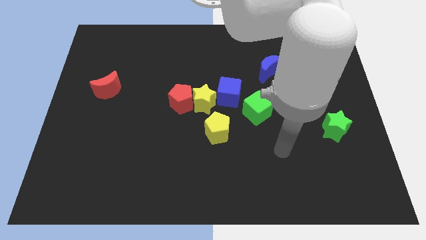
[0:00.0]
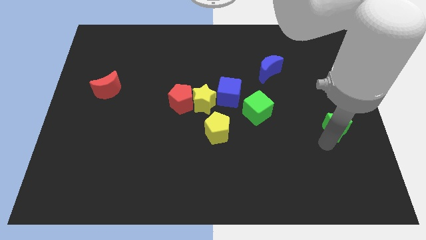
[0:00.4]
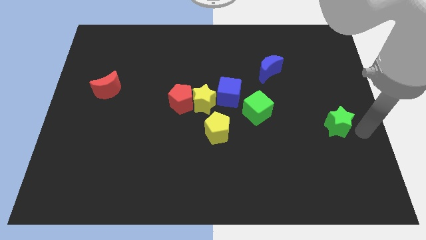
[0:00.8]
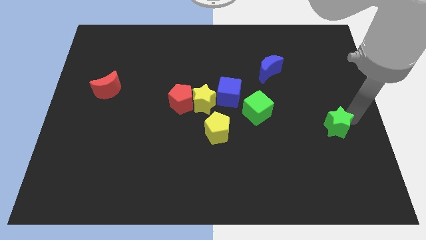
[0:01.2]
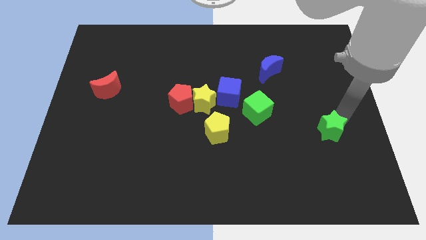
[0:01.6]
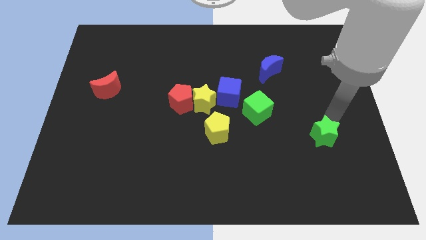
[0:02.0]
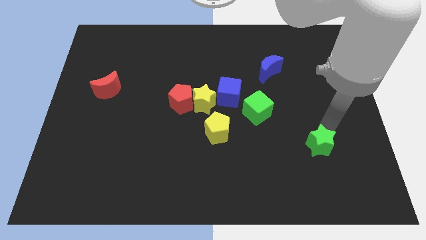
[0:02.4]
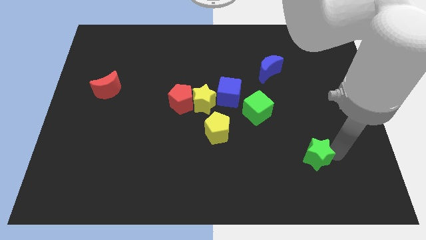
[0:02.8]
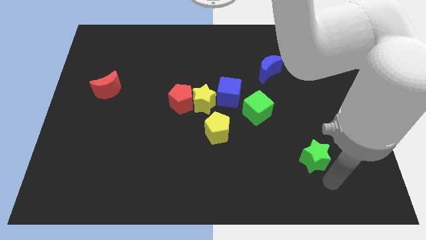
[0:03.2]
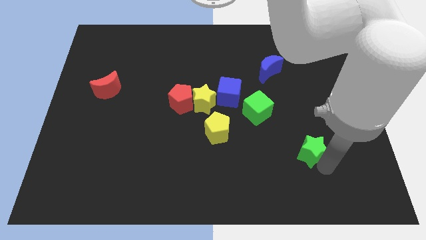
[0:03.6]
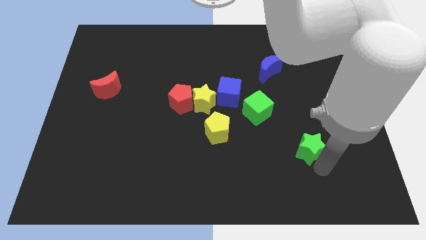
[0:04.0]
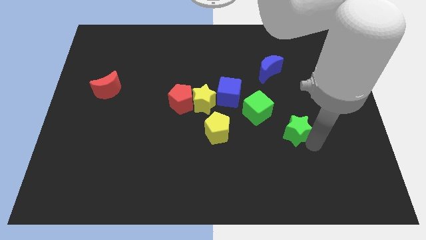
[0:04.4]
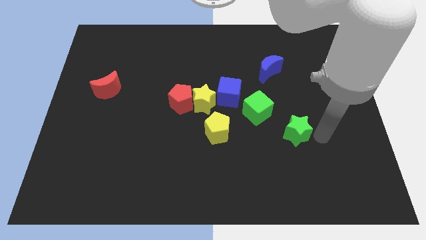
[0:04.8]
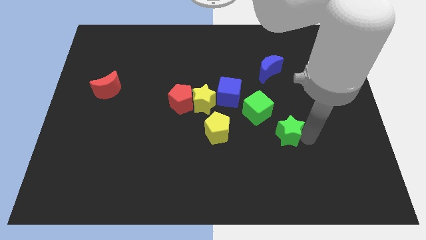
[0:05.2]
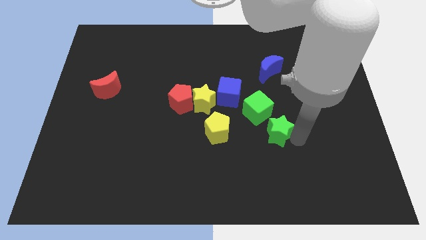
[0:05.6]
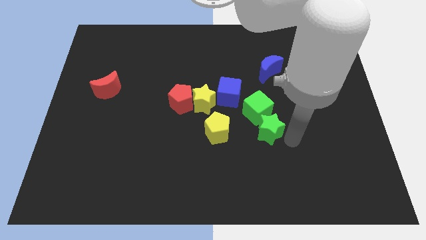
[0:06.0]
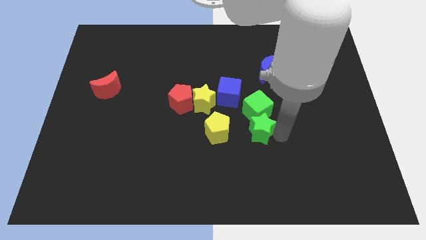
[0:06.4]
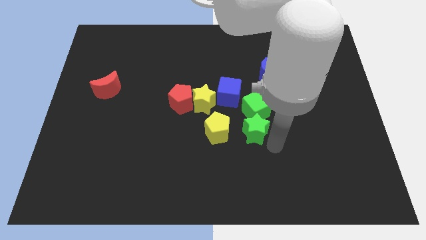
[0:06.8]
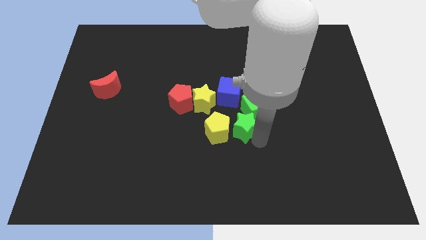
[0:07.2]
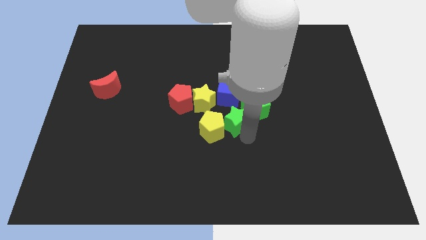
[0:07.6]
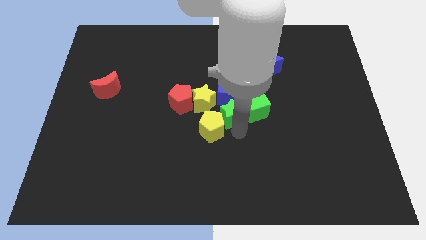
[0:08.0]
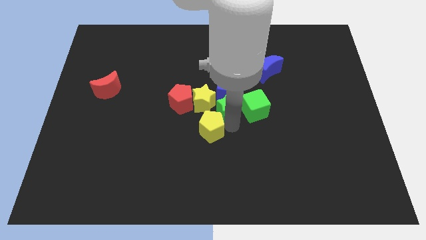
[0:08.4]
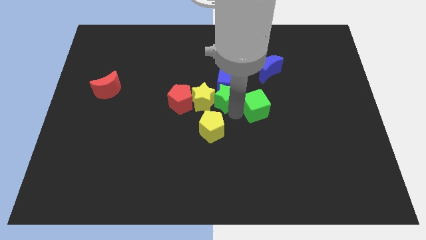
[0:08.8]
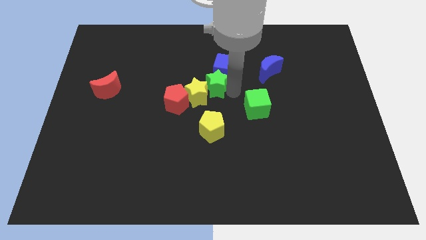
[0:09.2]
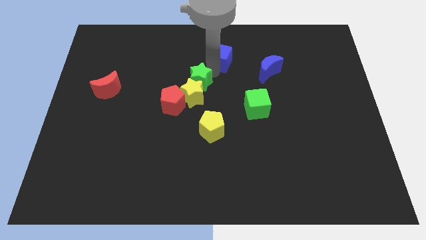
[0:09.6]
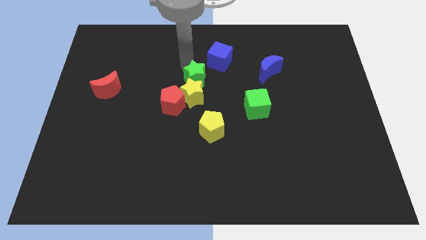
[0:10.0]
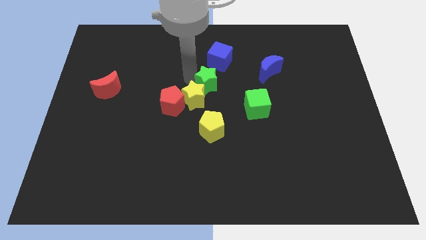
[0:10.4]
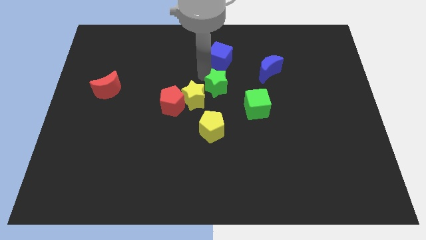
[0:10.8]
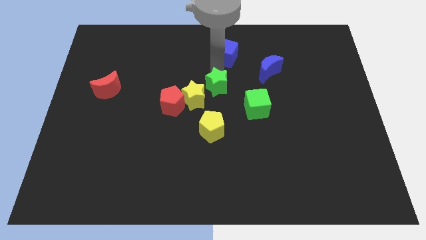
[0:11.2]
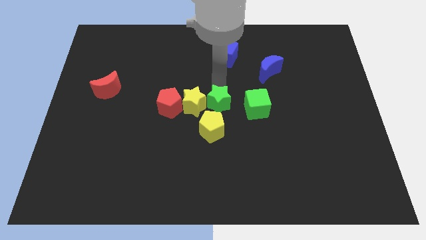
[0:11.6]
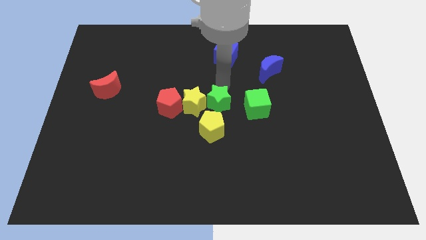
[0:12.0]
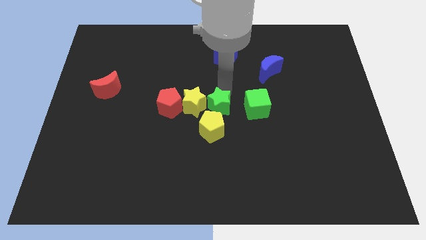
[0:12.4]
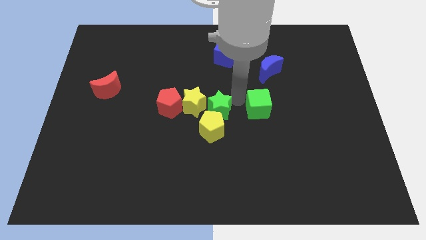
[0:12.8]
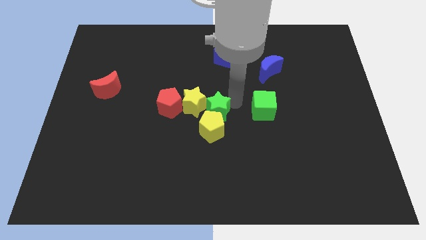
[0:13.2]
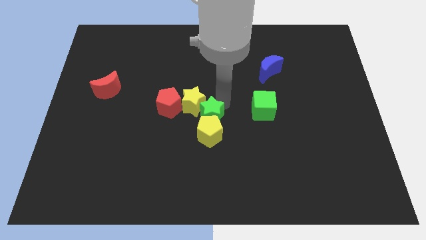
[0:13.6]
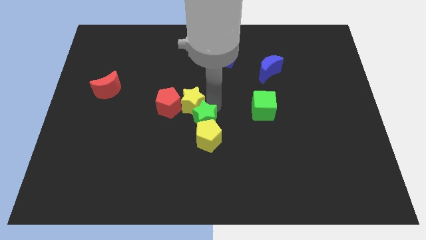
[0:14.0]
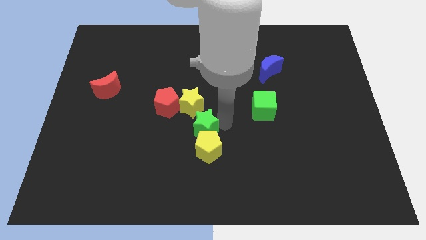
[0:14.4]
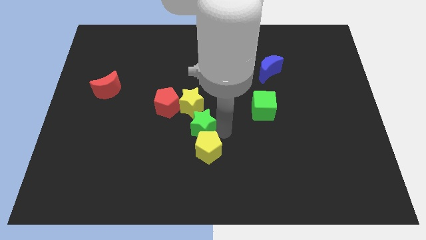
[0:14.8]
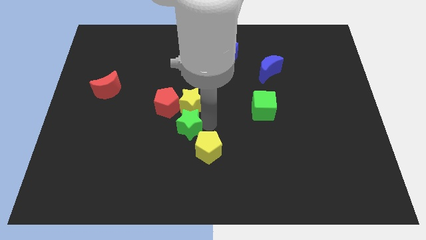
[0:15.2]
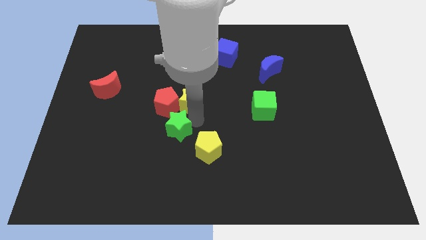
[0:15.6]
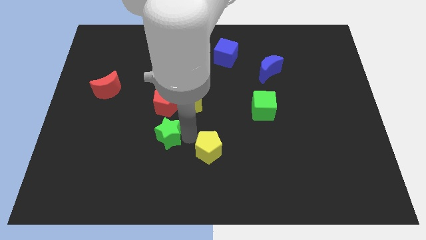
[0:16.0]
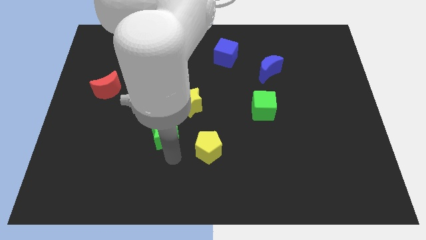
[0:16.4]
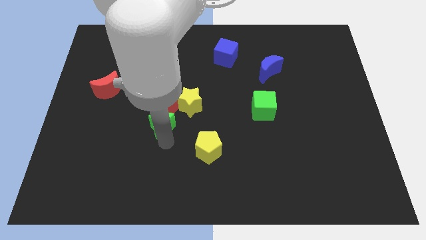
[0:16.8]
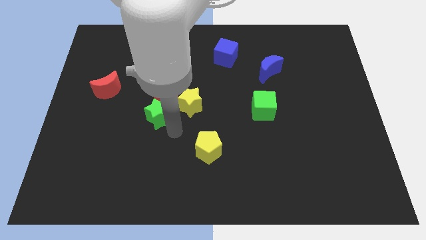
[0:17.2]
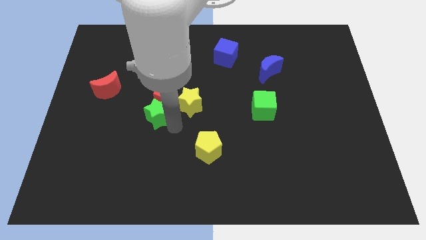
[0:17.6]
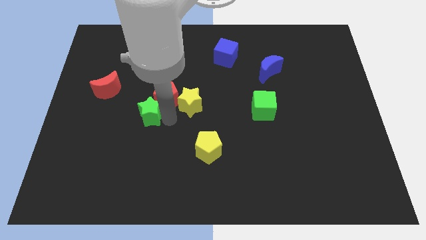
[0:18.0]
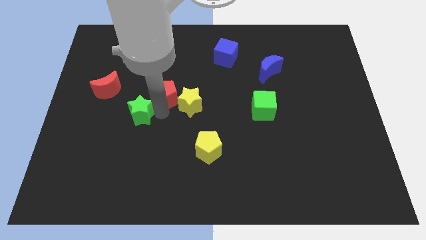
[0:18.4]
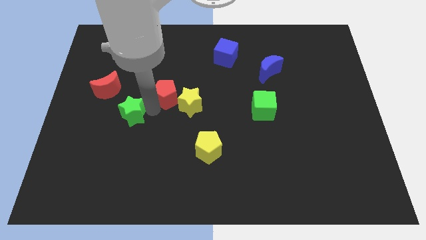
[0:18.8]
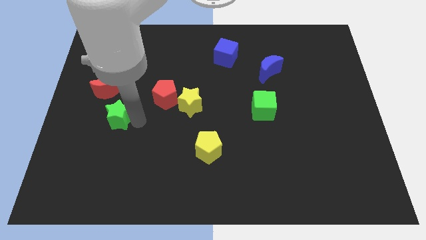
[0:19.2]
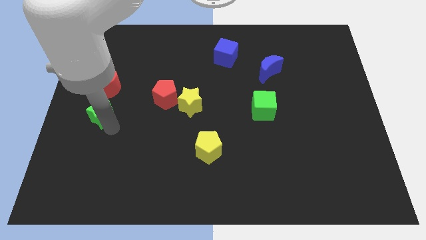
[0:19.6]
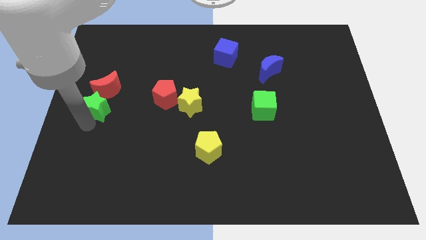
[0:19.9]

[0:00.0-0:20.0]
put the green star next to the red moon

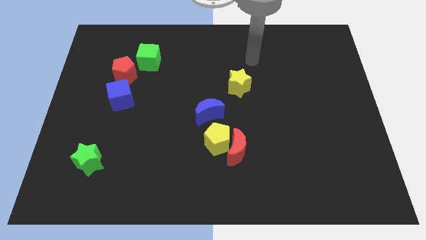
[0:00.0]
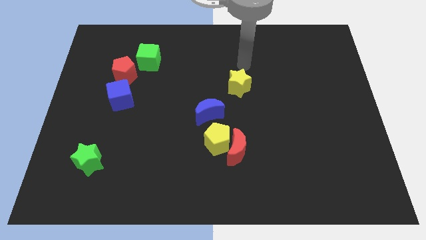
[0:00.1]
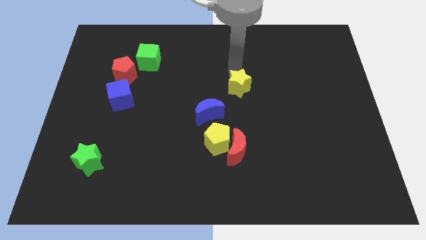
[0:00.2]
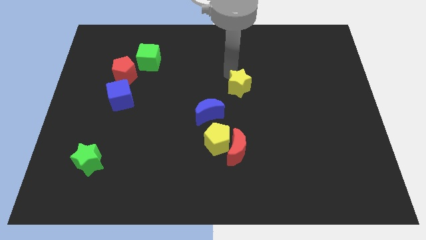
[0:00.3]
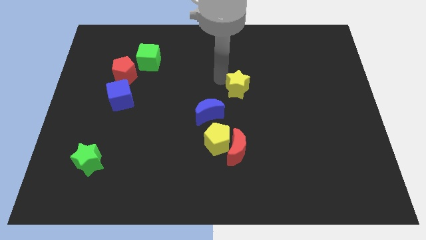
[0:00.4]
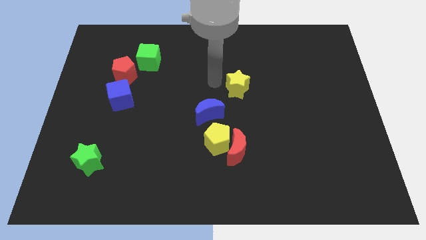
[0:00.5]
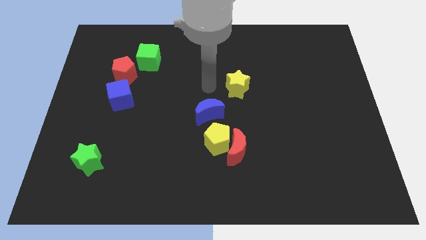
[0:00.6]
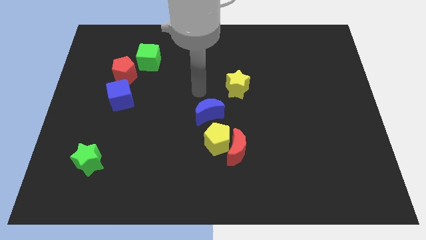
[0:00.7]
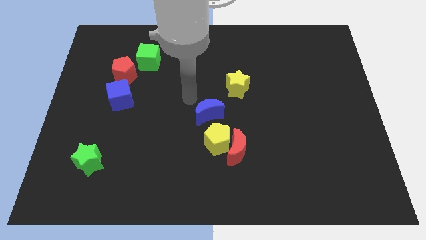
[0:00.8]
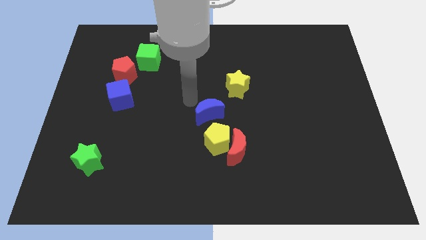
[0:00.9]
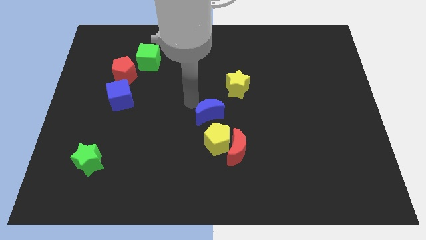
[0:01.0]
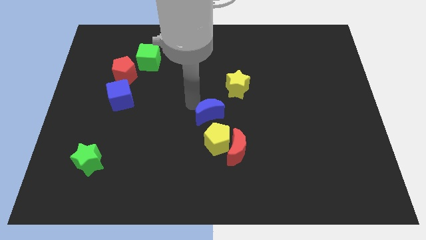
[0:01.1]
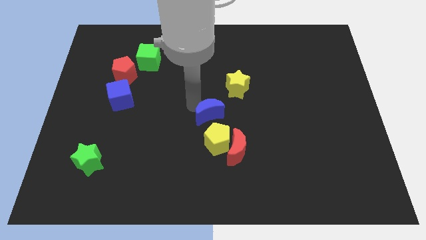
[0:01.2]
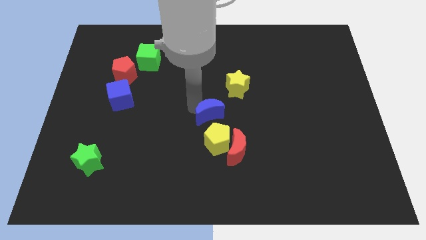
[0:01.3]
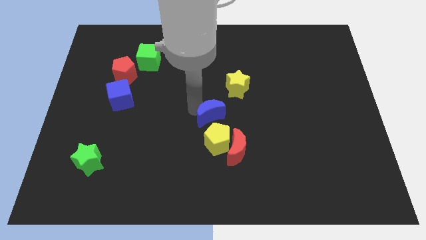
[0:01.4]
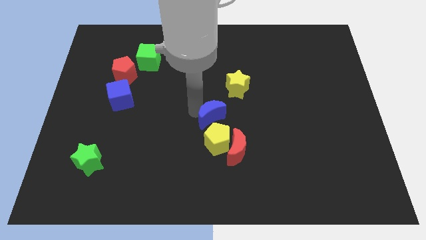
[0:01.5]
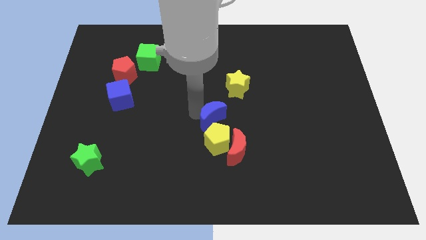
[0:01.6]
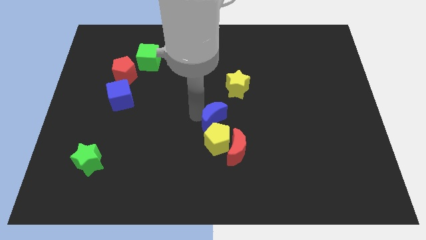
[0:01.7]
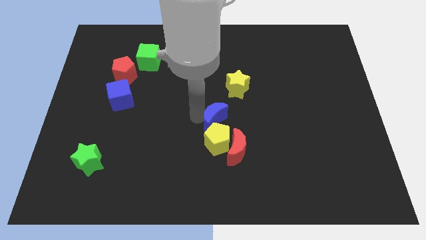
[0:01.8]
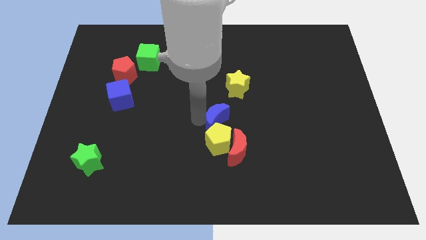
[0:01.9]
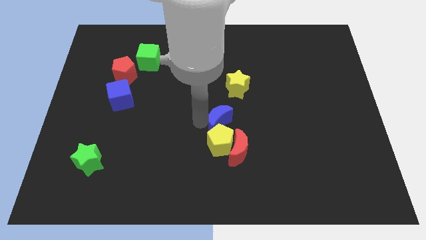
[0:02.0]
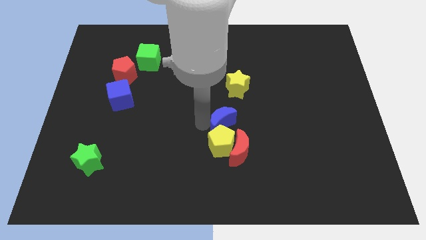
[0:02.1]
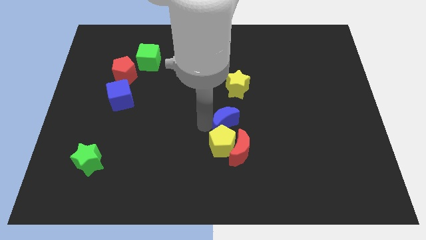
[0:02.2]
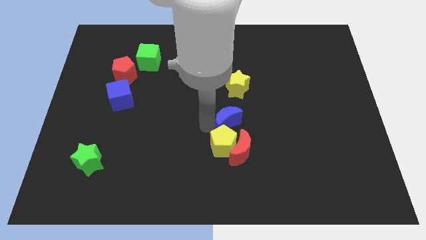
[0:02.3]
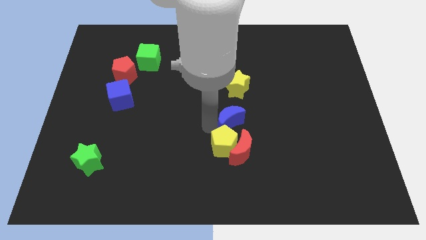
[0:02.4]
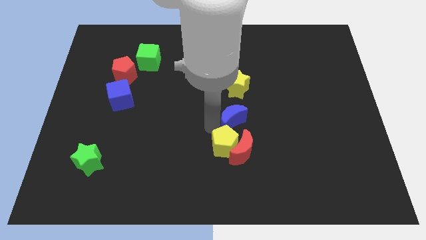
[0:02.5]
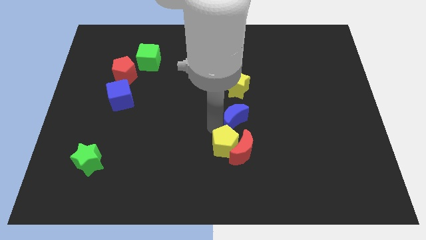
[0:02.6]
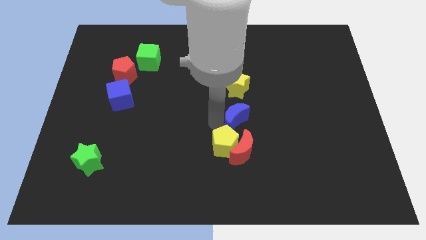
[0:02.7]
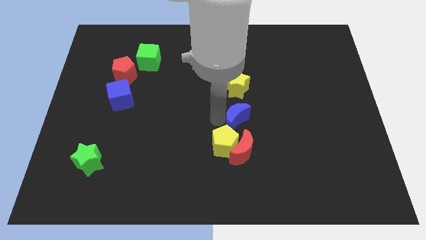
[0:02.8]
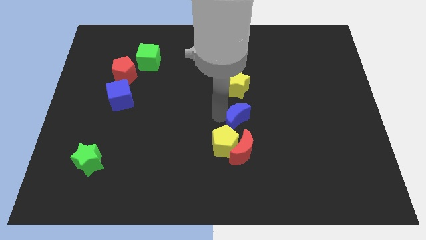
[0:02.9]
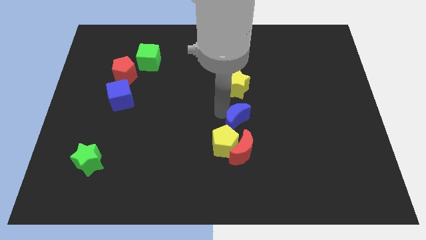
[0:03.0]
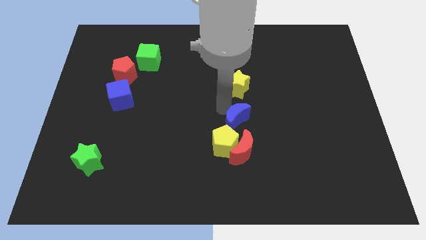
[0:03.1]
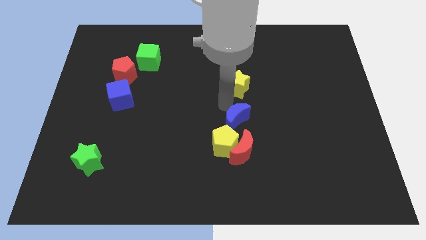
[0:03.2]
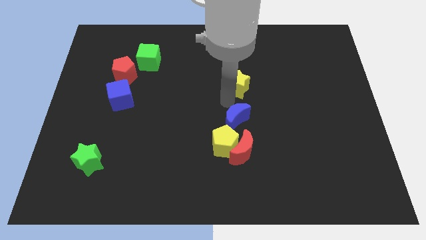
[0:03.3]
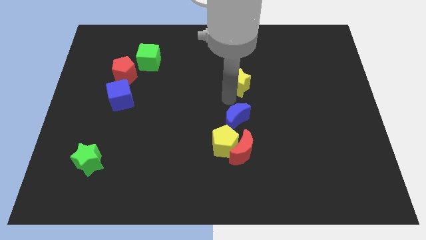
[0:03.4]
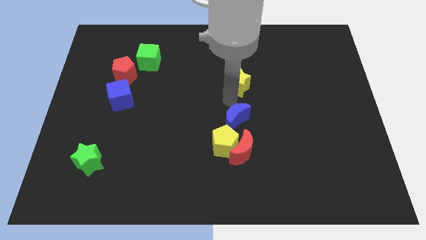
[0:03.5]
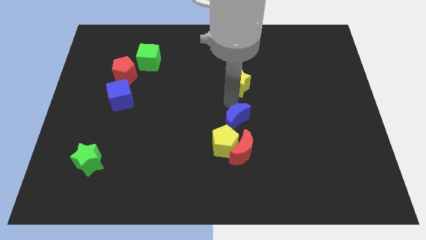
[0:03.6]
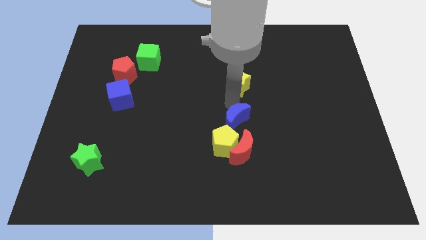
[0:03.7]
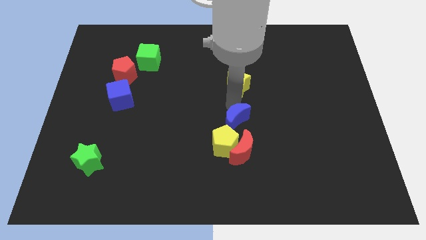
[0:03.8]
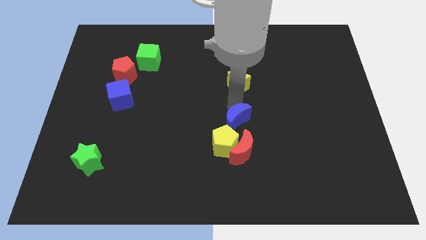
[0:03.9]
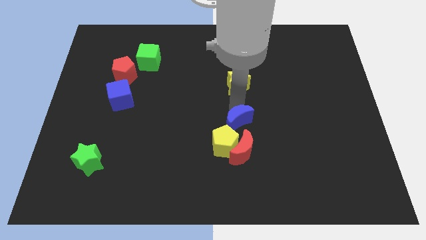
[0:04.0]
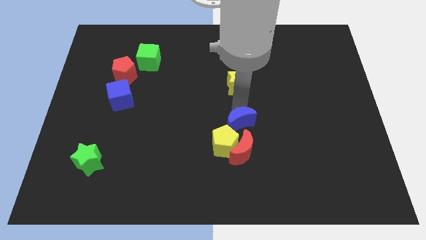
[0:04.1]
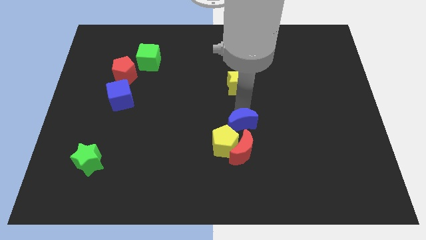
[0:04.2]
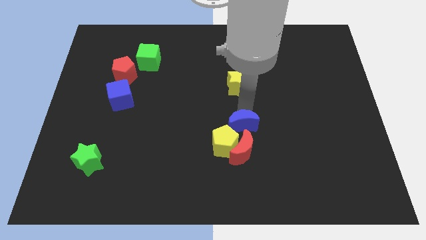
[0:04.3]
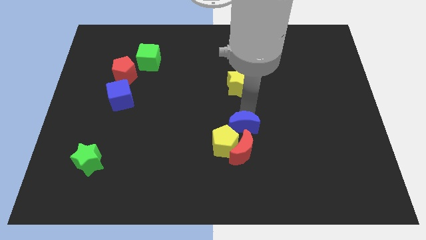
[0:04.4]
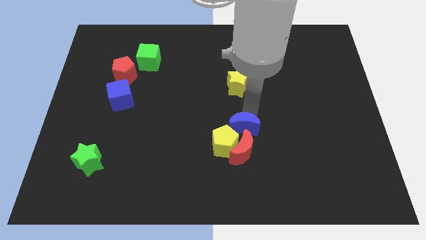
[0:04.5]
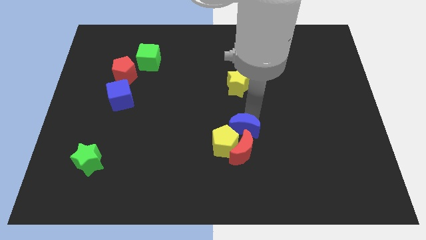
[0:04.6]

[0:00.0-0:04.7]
push the blue moon to the red moon
